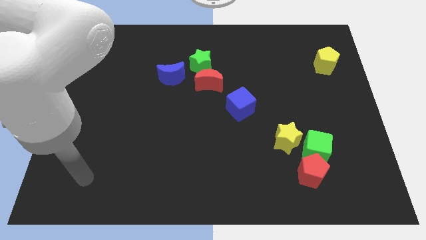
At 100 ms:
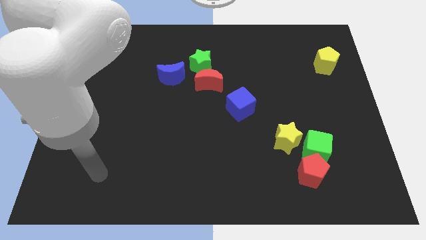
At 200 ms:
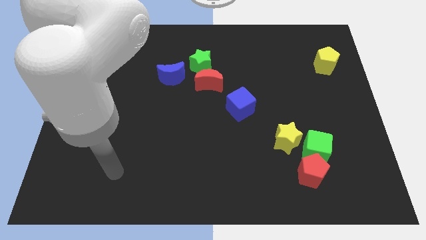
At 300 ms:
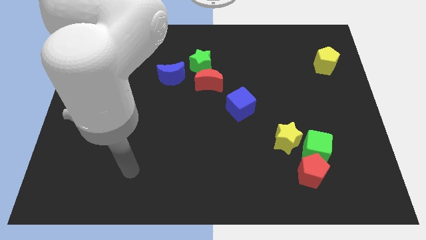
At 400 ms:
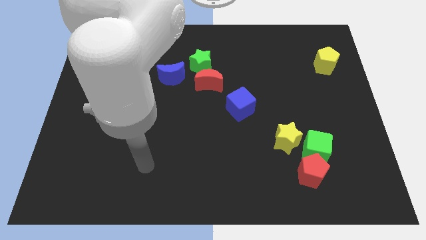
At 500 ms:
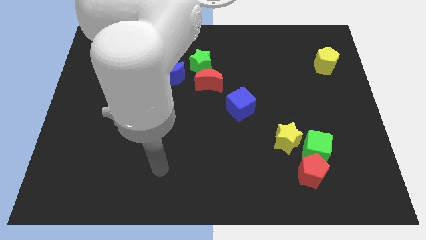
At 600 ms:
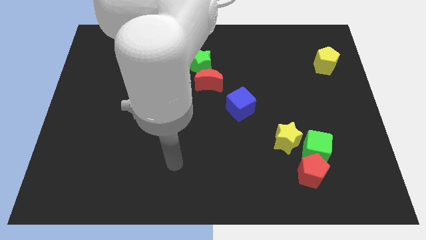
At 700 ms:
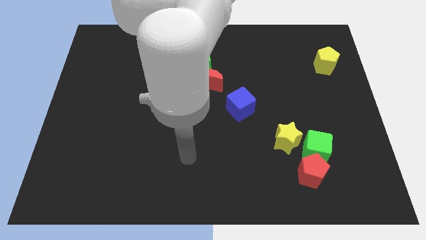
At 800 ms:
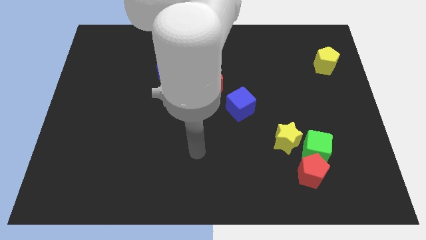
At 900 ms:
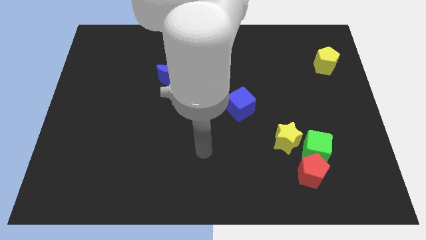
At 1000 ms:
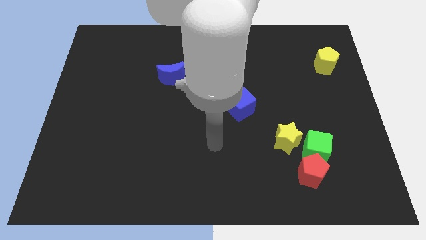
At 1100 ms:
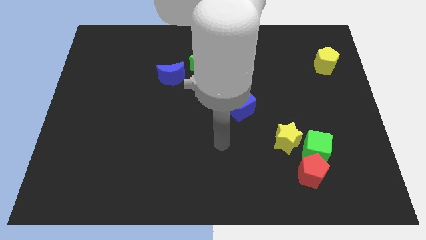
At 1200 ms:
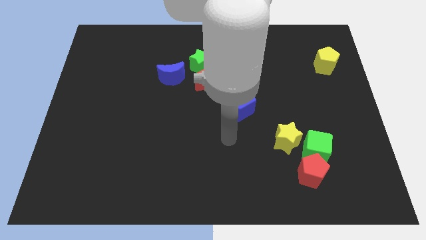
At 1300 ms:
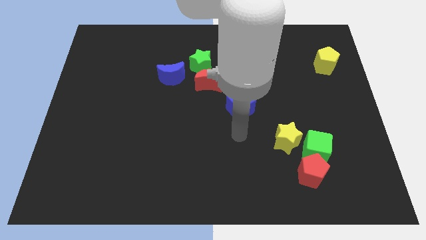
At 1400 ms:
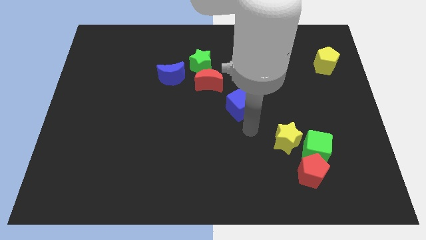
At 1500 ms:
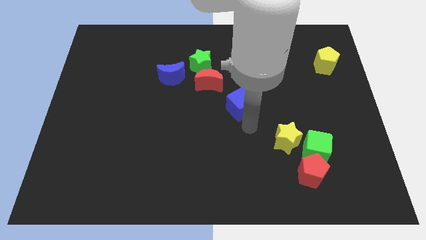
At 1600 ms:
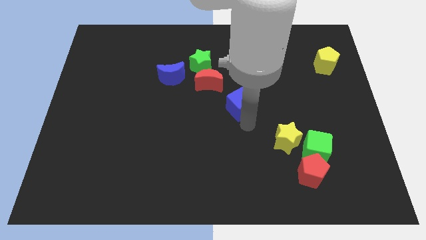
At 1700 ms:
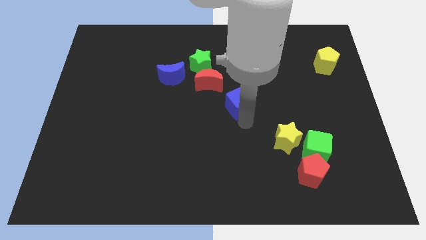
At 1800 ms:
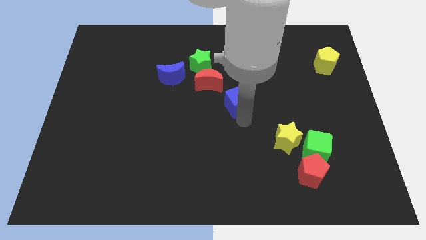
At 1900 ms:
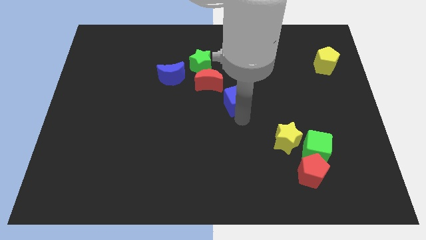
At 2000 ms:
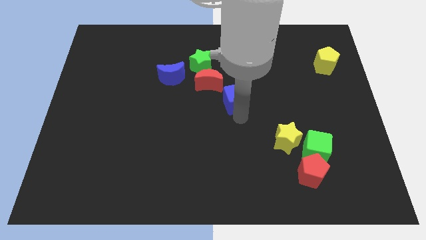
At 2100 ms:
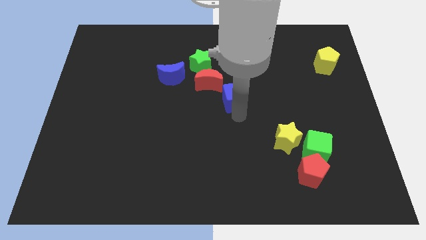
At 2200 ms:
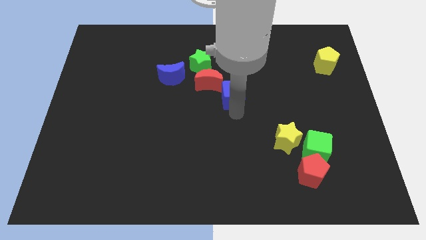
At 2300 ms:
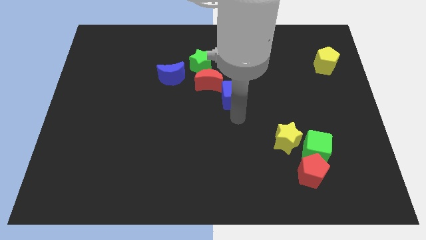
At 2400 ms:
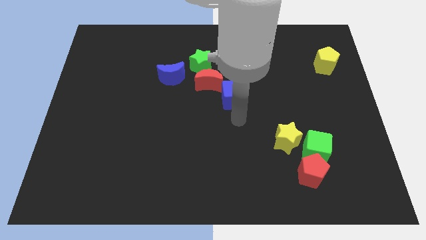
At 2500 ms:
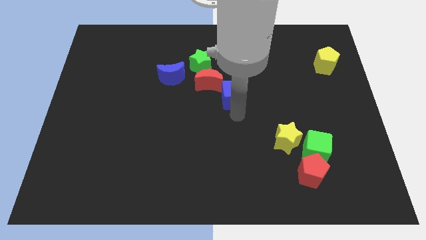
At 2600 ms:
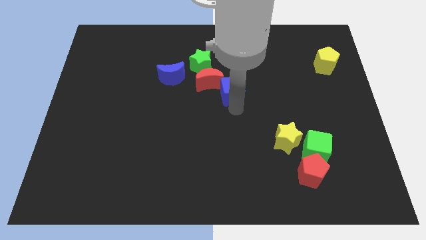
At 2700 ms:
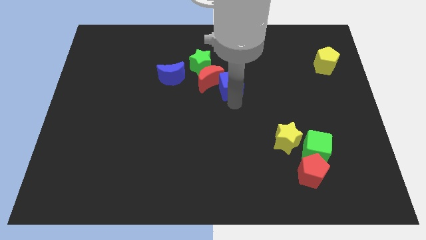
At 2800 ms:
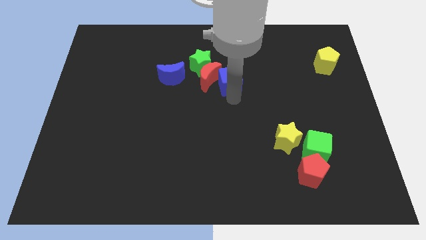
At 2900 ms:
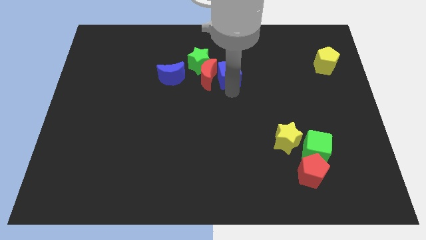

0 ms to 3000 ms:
move the blue cube a little bit diagonally up and left

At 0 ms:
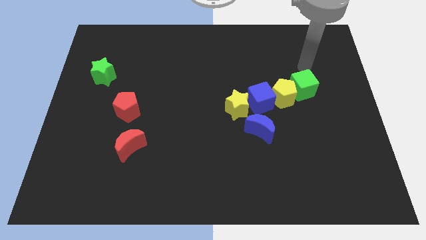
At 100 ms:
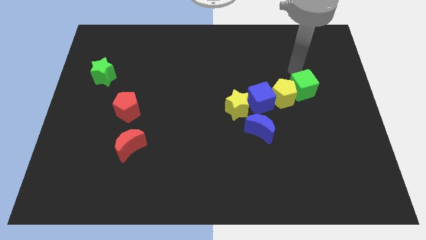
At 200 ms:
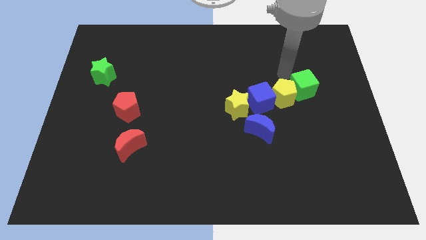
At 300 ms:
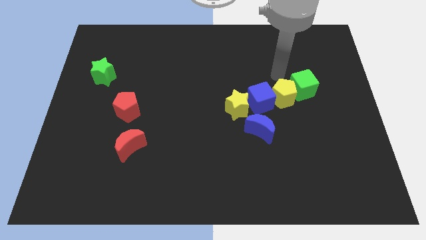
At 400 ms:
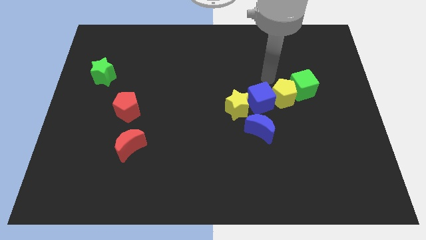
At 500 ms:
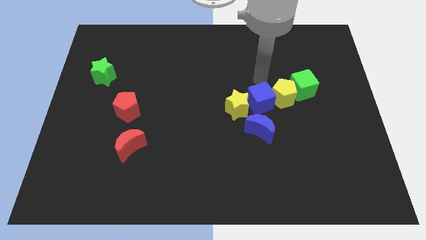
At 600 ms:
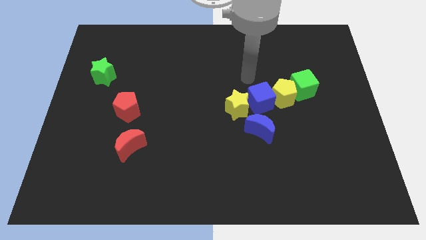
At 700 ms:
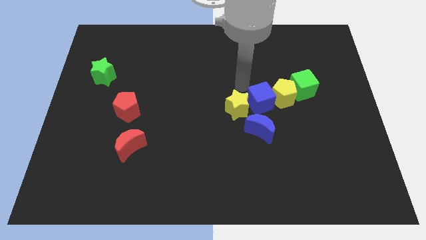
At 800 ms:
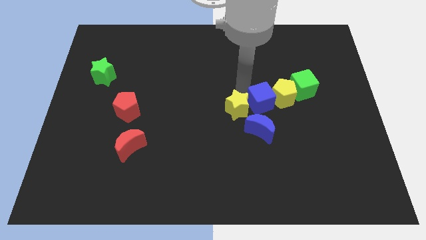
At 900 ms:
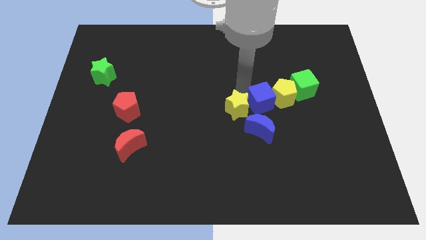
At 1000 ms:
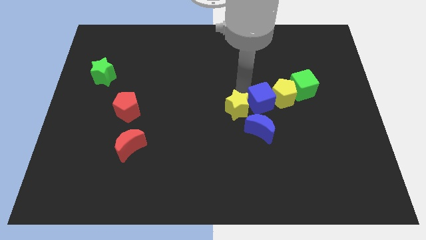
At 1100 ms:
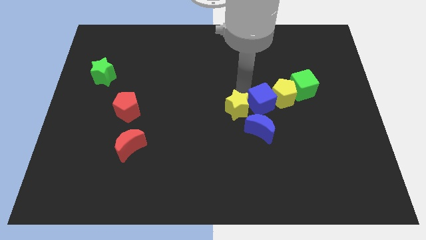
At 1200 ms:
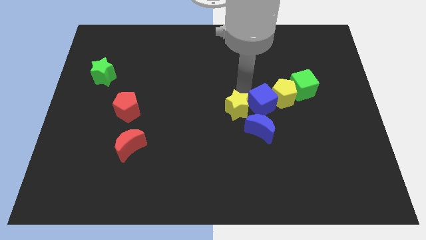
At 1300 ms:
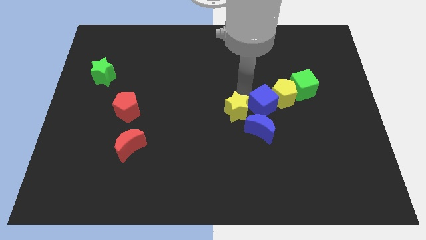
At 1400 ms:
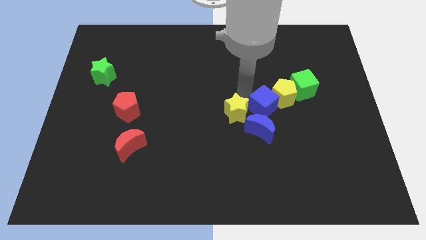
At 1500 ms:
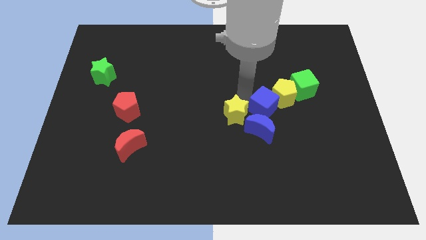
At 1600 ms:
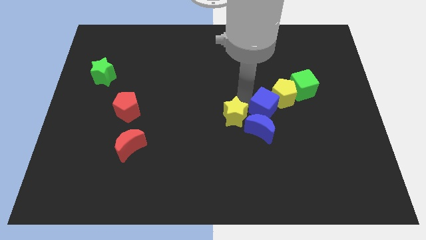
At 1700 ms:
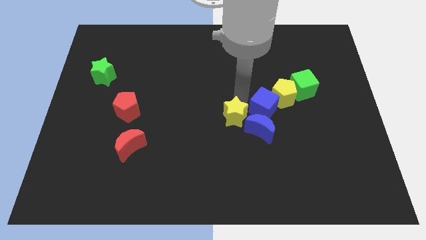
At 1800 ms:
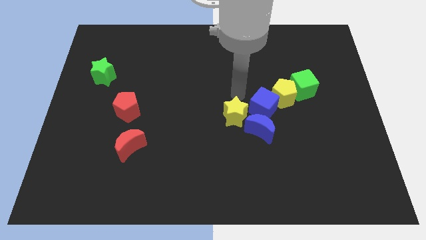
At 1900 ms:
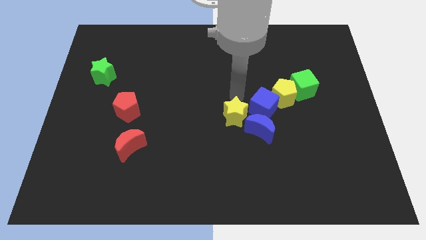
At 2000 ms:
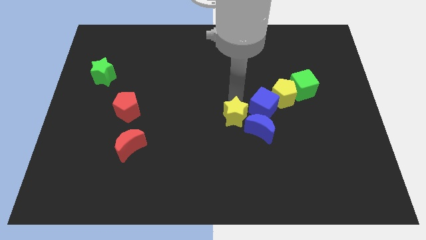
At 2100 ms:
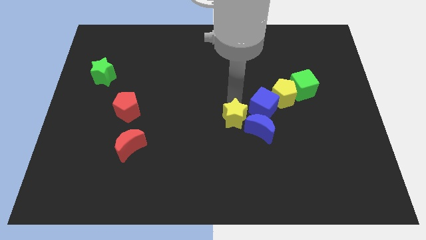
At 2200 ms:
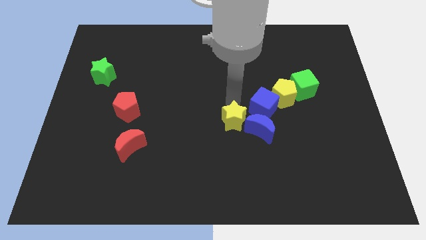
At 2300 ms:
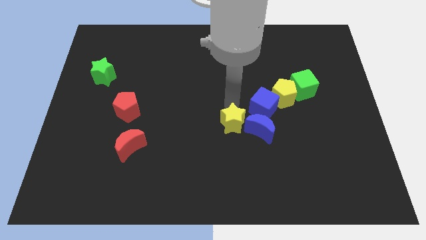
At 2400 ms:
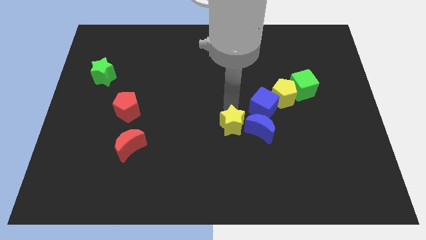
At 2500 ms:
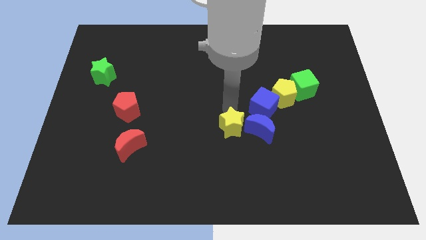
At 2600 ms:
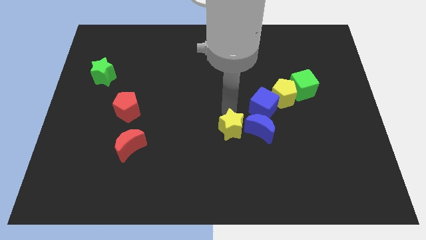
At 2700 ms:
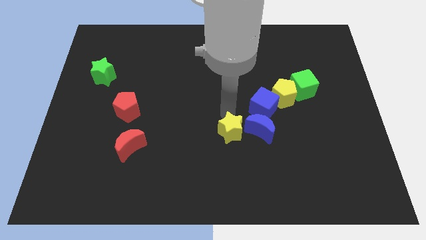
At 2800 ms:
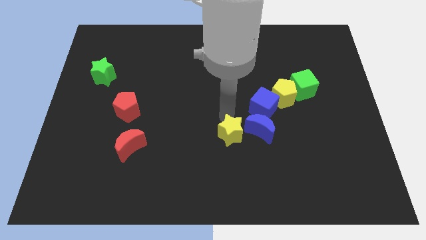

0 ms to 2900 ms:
push the yellow star downwards slightly

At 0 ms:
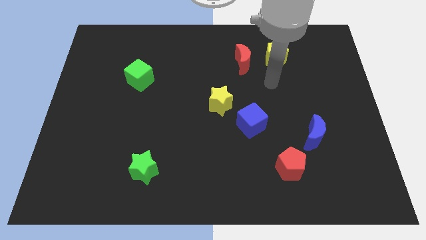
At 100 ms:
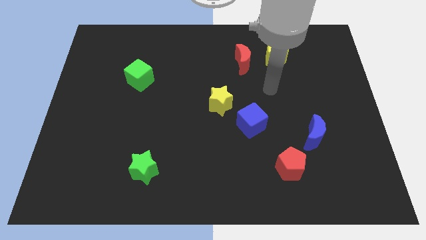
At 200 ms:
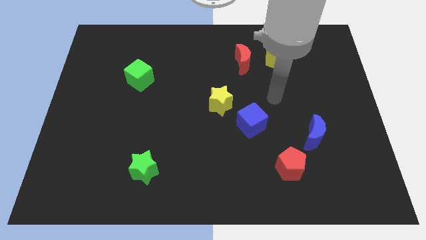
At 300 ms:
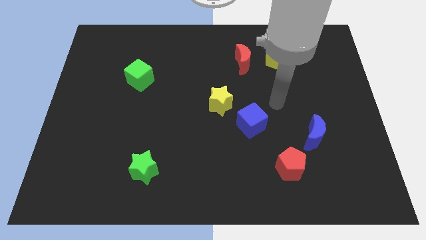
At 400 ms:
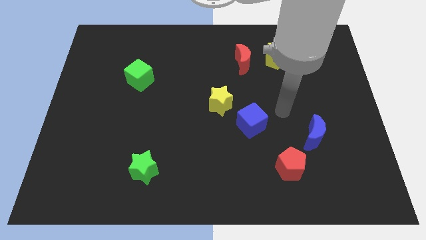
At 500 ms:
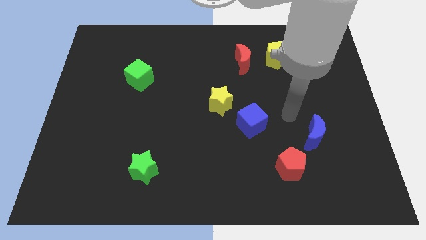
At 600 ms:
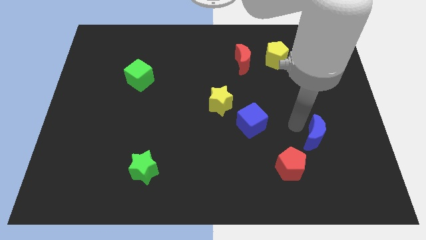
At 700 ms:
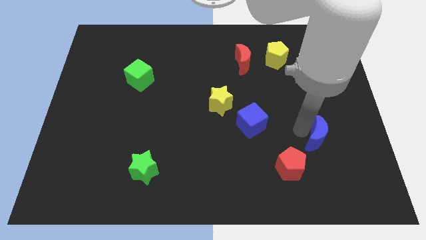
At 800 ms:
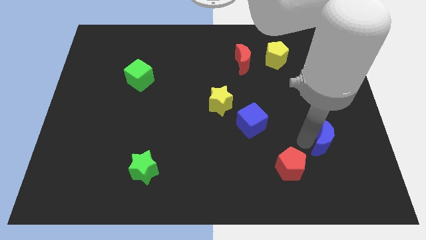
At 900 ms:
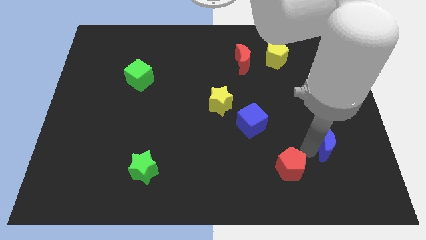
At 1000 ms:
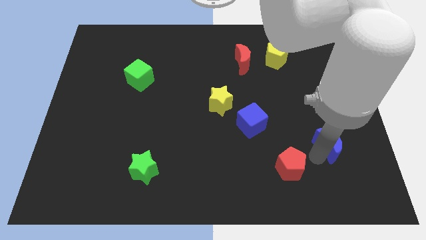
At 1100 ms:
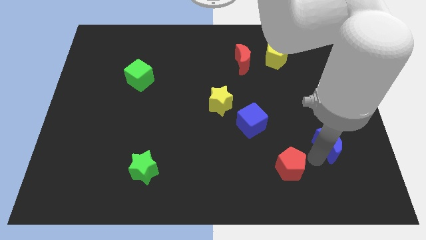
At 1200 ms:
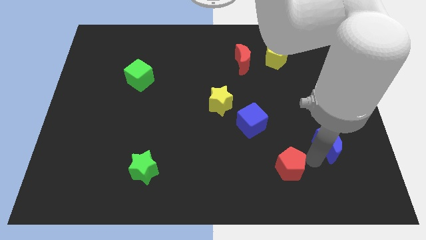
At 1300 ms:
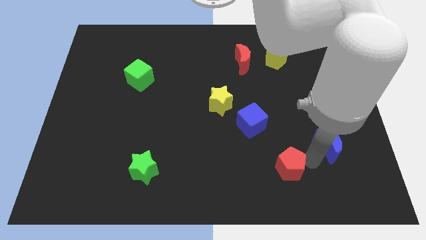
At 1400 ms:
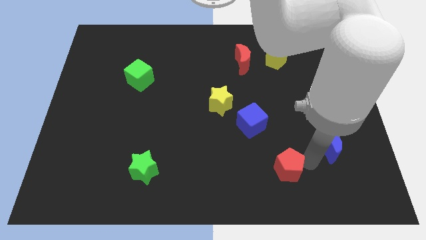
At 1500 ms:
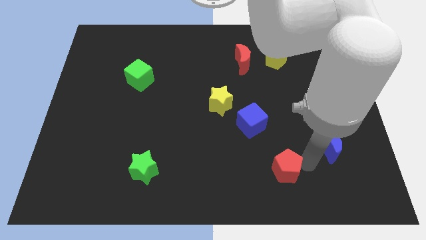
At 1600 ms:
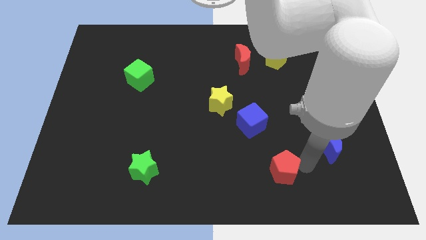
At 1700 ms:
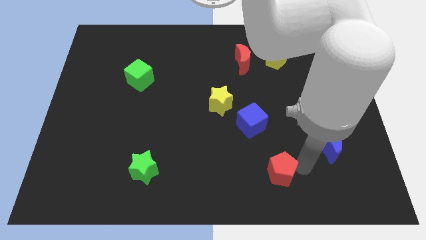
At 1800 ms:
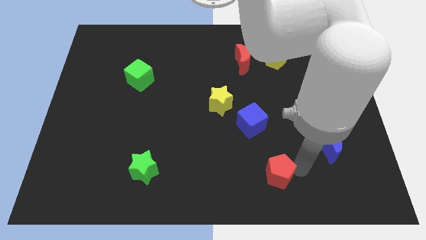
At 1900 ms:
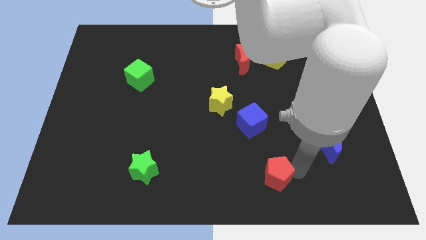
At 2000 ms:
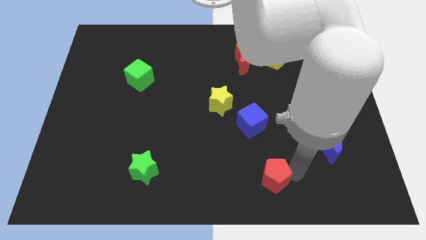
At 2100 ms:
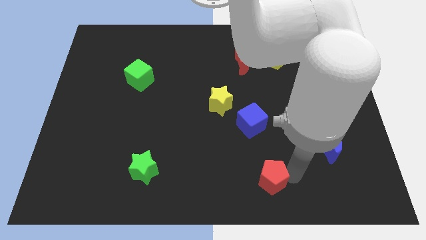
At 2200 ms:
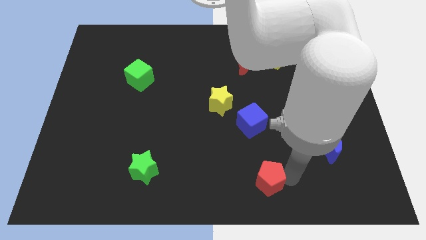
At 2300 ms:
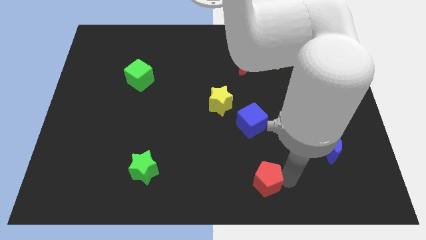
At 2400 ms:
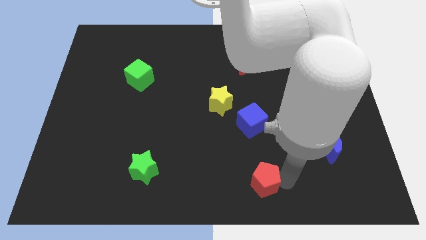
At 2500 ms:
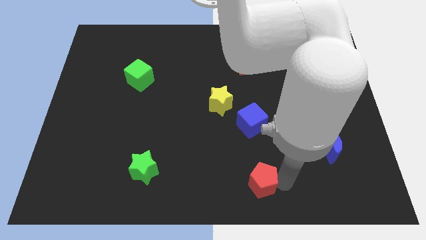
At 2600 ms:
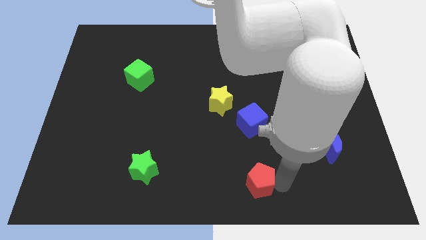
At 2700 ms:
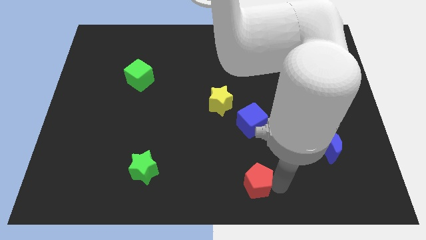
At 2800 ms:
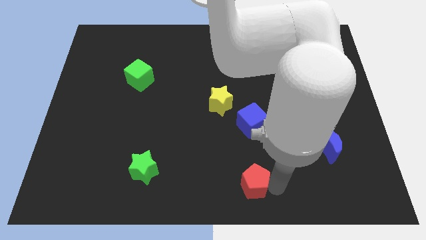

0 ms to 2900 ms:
push the red pentagon a bit to the left
